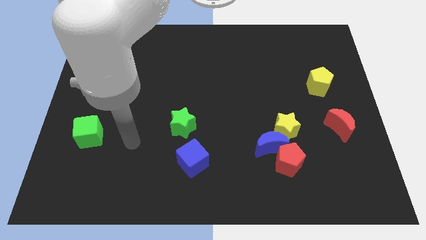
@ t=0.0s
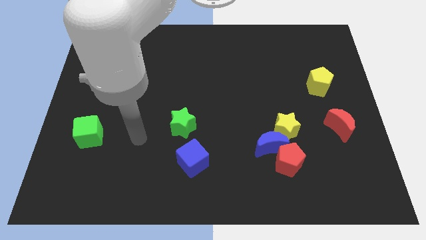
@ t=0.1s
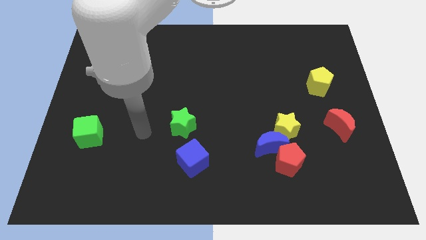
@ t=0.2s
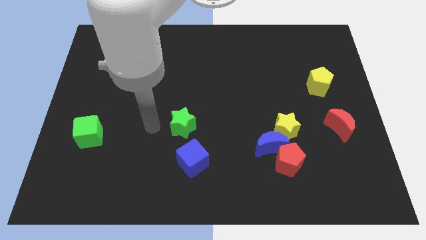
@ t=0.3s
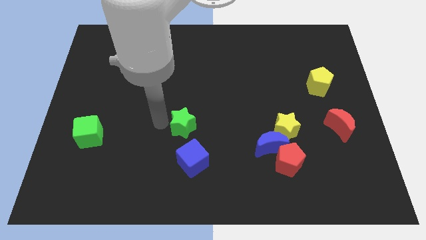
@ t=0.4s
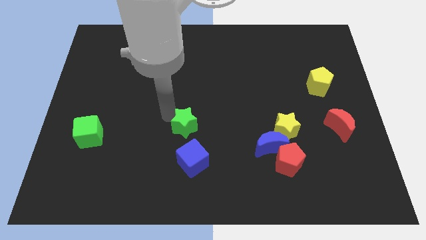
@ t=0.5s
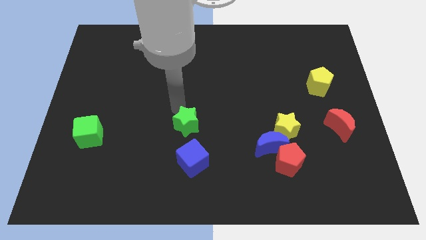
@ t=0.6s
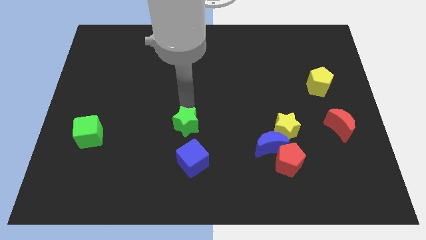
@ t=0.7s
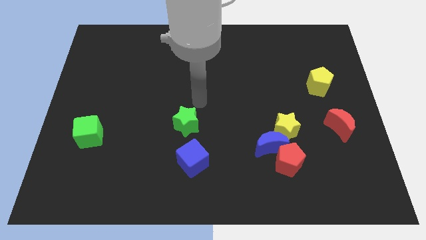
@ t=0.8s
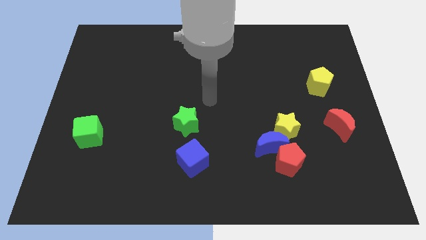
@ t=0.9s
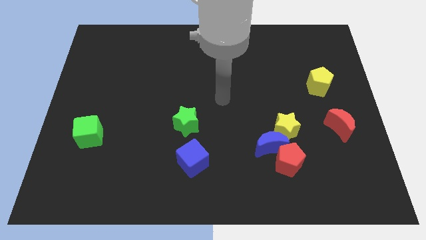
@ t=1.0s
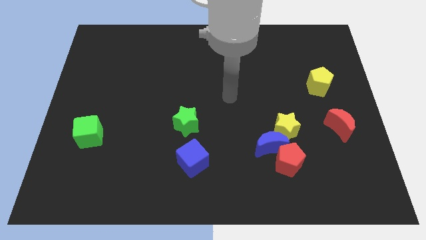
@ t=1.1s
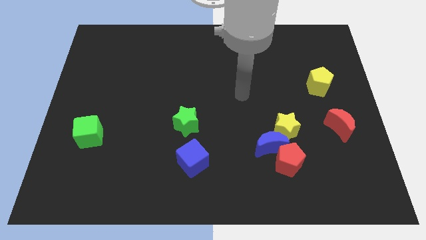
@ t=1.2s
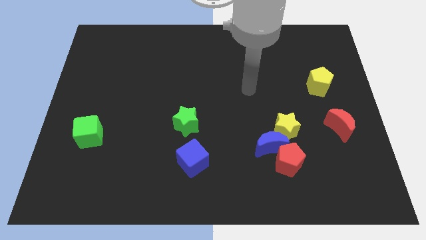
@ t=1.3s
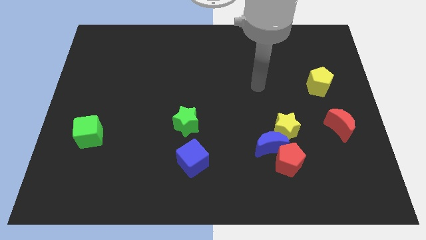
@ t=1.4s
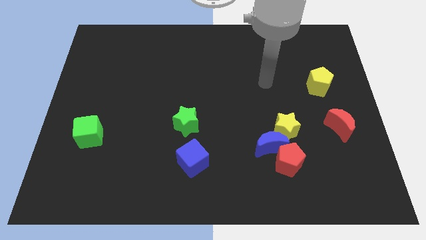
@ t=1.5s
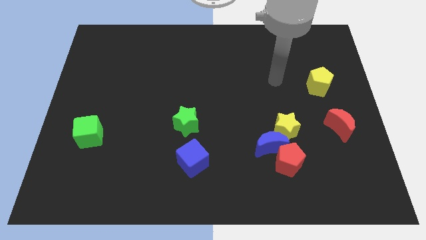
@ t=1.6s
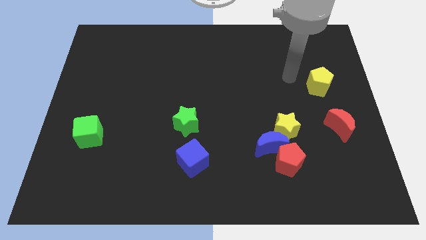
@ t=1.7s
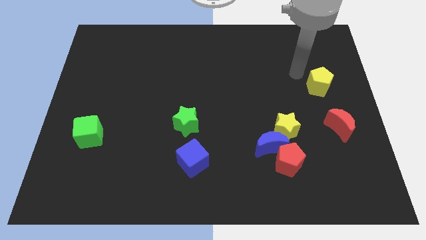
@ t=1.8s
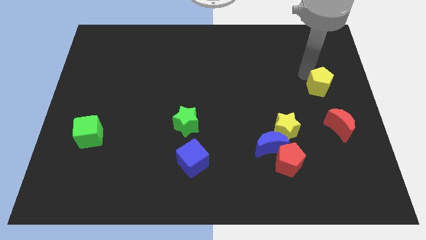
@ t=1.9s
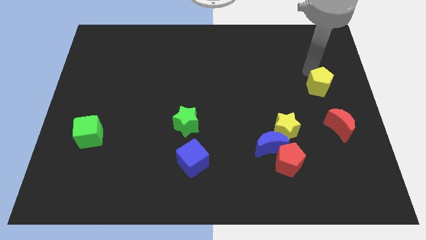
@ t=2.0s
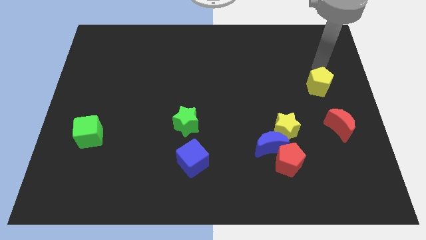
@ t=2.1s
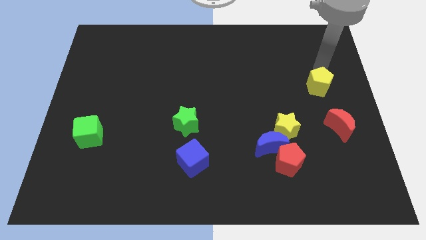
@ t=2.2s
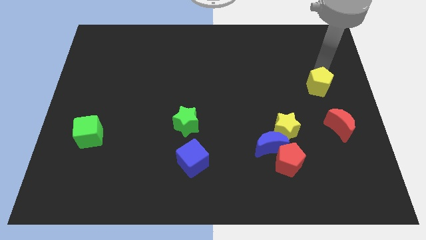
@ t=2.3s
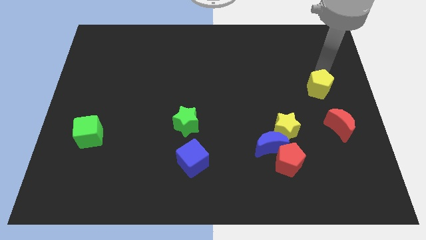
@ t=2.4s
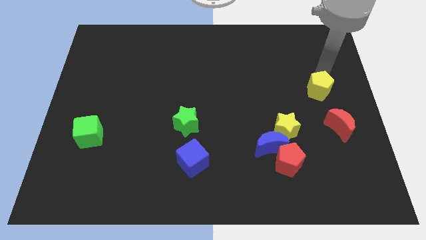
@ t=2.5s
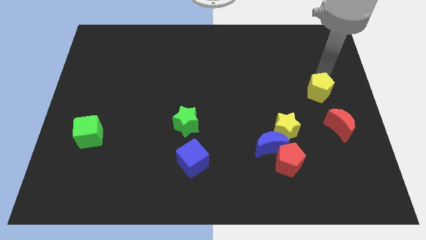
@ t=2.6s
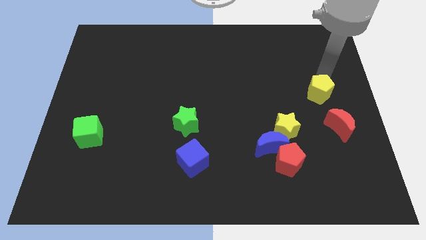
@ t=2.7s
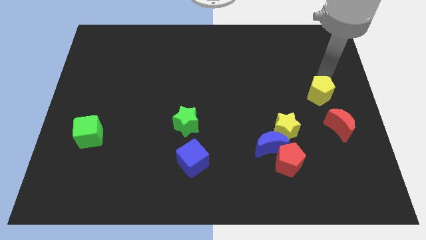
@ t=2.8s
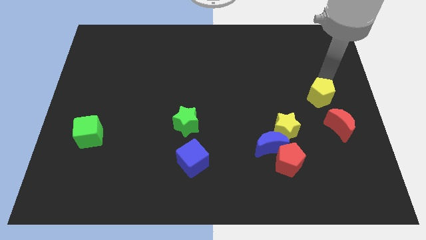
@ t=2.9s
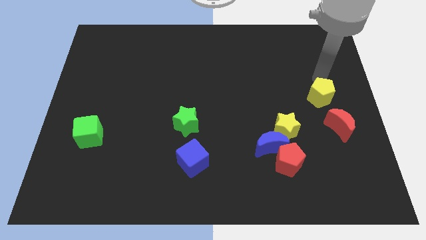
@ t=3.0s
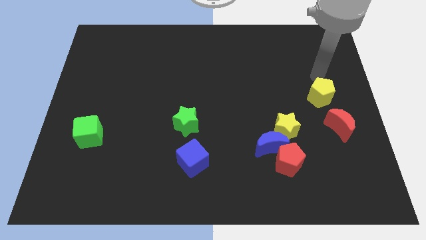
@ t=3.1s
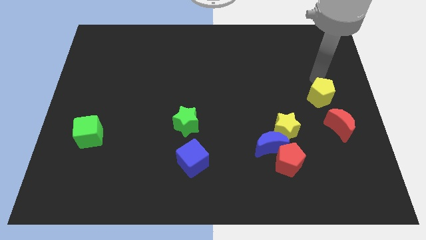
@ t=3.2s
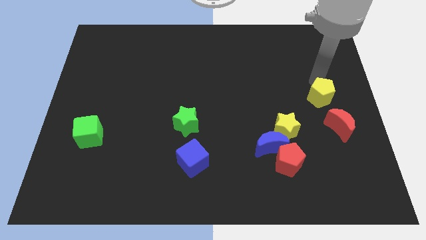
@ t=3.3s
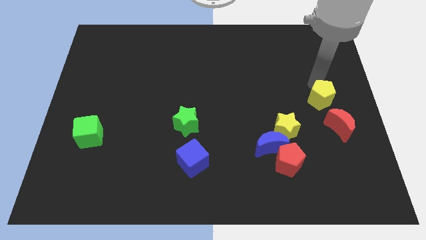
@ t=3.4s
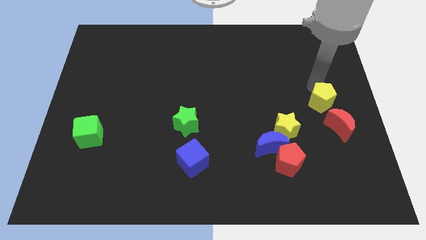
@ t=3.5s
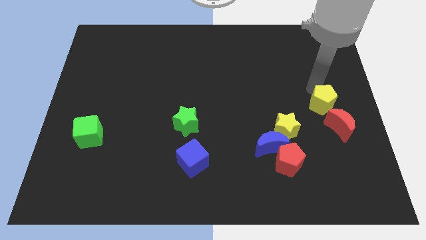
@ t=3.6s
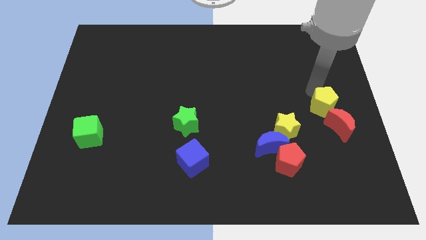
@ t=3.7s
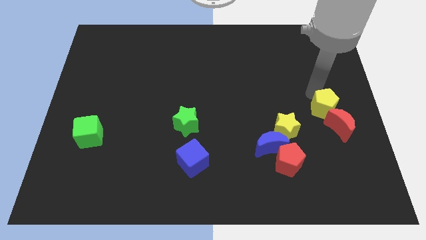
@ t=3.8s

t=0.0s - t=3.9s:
push the yellow pentagon a little bit down

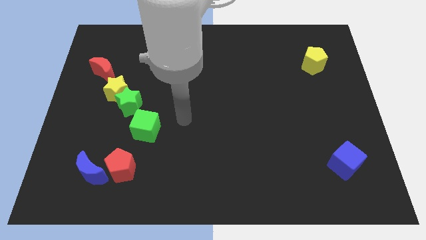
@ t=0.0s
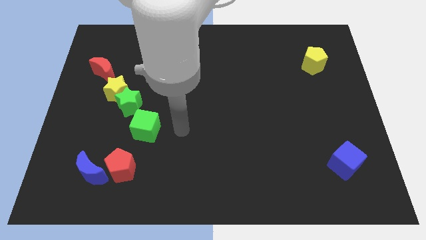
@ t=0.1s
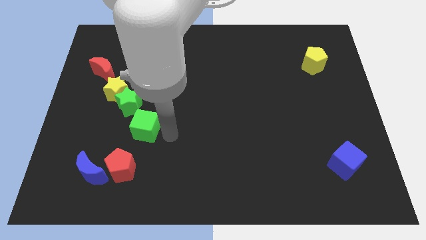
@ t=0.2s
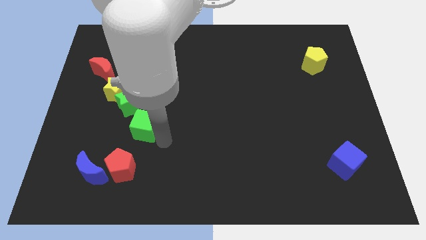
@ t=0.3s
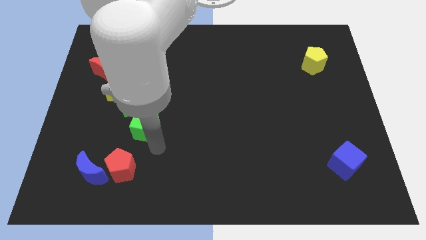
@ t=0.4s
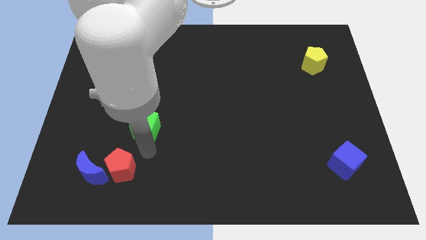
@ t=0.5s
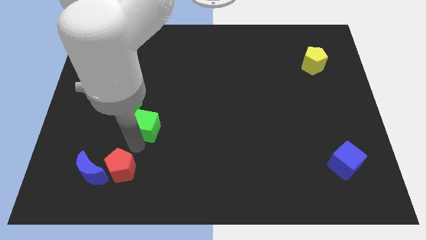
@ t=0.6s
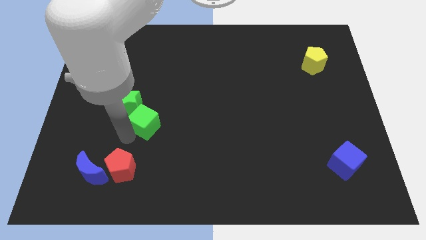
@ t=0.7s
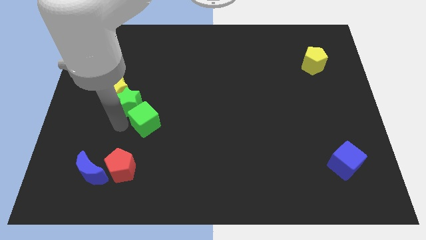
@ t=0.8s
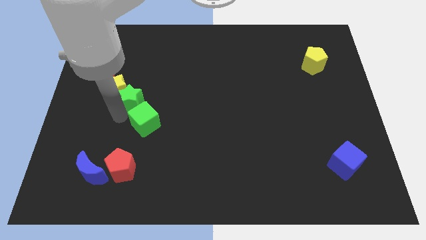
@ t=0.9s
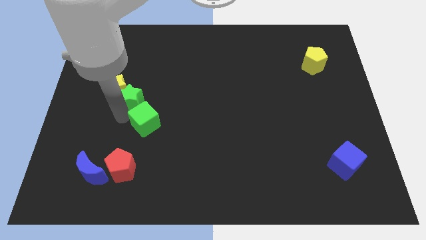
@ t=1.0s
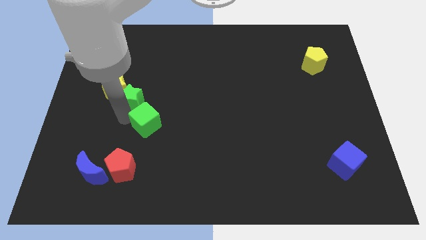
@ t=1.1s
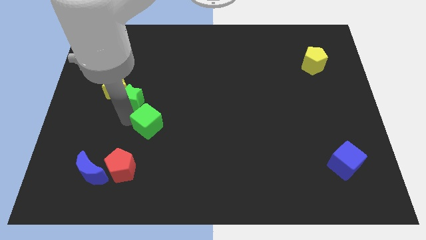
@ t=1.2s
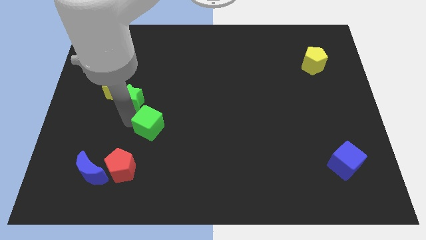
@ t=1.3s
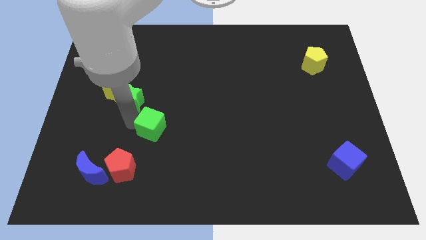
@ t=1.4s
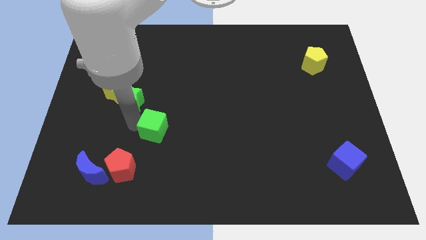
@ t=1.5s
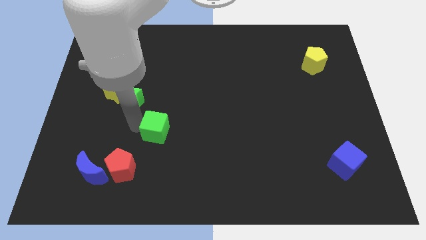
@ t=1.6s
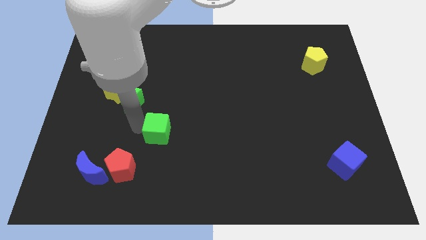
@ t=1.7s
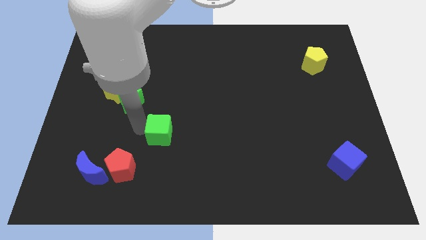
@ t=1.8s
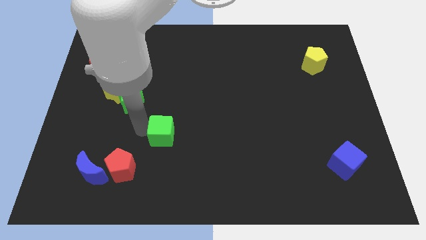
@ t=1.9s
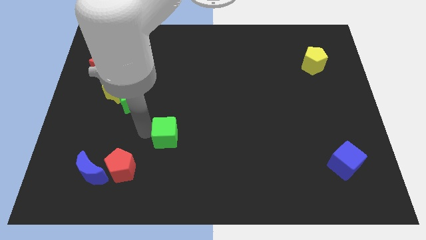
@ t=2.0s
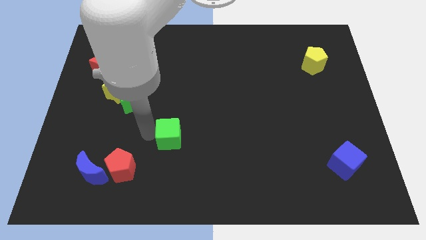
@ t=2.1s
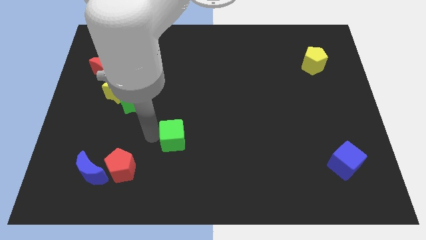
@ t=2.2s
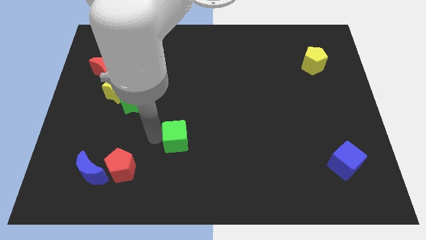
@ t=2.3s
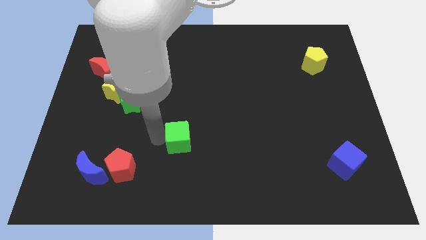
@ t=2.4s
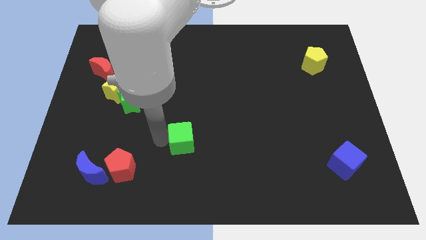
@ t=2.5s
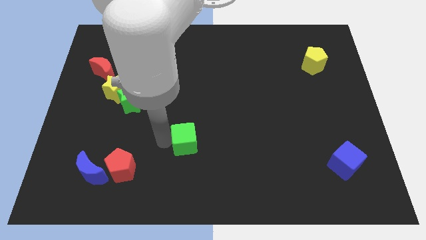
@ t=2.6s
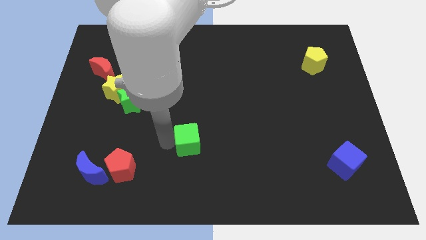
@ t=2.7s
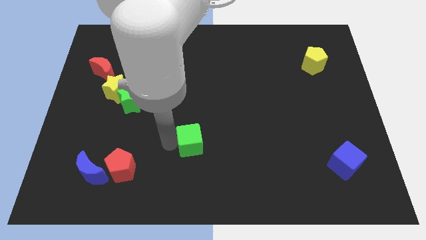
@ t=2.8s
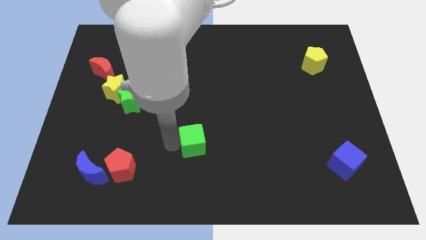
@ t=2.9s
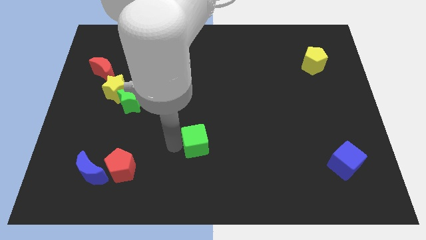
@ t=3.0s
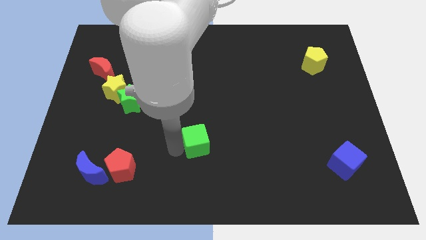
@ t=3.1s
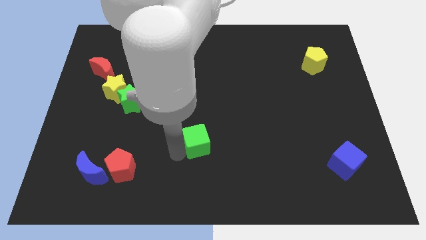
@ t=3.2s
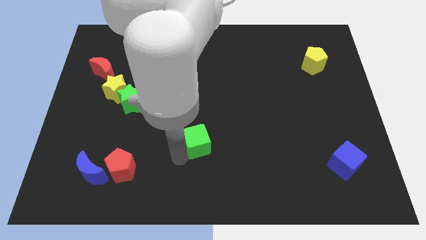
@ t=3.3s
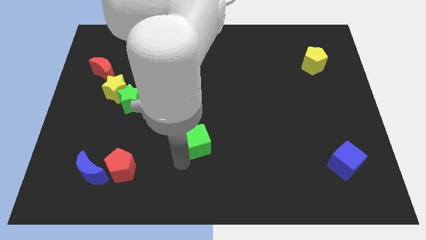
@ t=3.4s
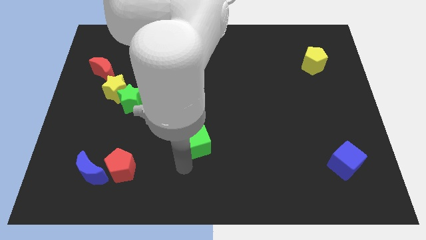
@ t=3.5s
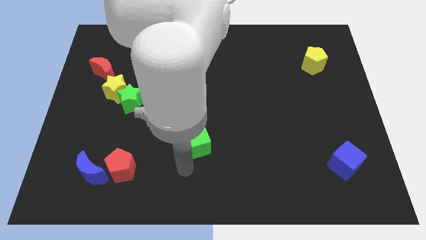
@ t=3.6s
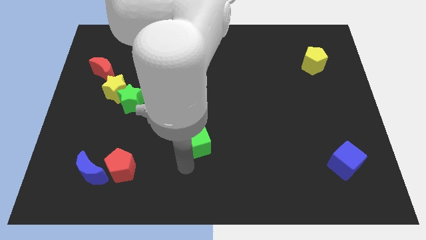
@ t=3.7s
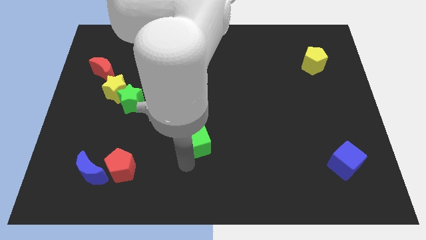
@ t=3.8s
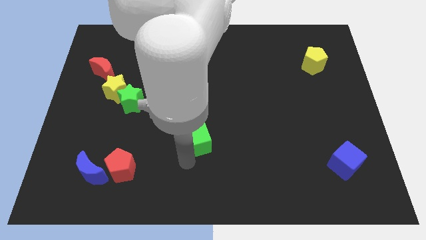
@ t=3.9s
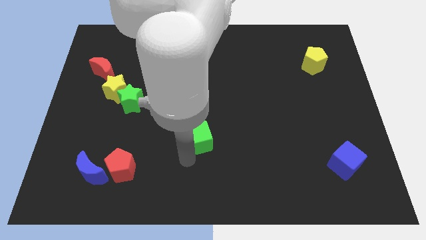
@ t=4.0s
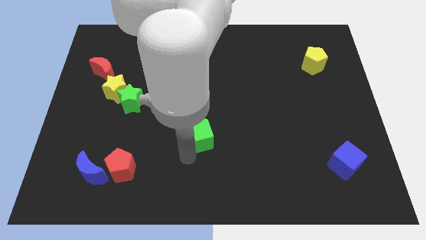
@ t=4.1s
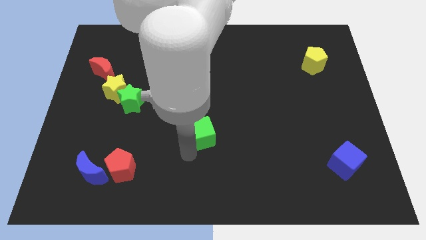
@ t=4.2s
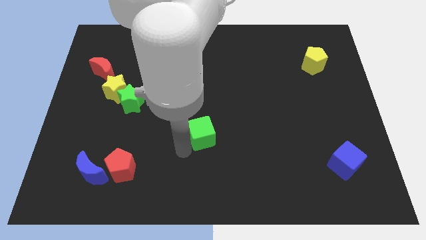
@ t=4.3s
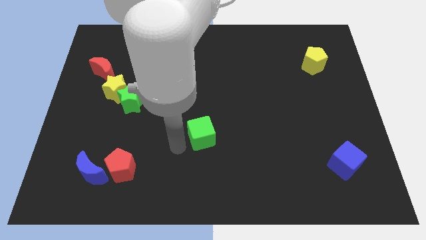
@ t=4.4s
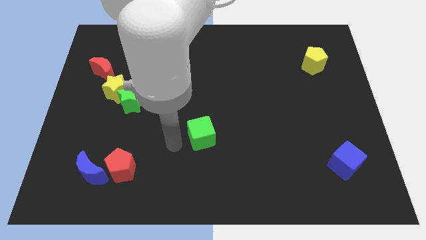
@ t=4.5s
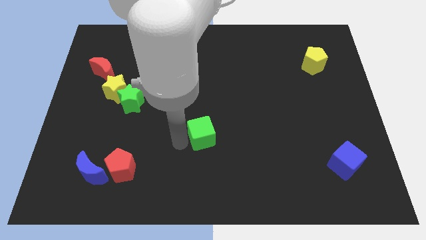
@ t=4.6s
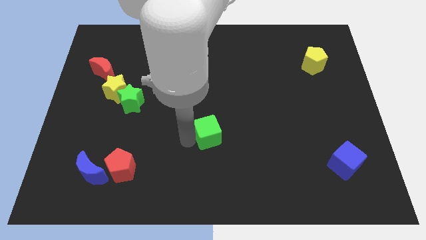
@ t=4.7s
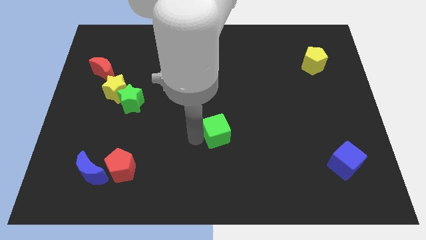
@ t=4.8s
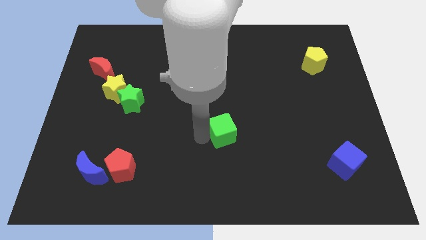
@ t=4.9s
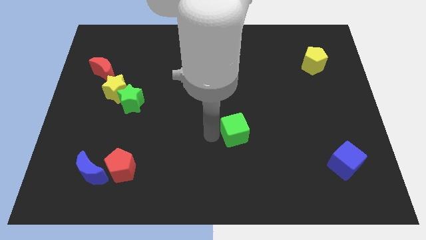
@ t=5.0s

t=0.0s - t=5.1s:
push the green cube right
